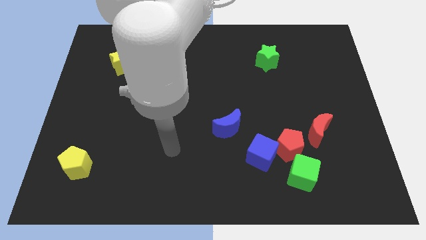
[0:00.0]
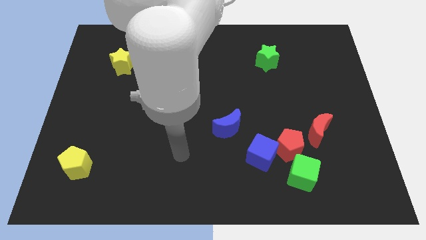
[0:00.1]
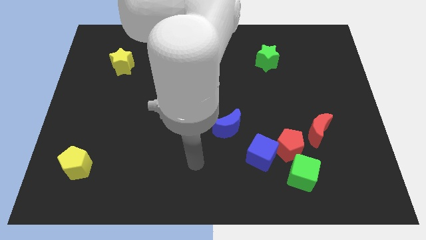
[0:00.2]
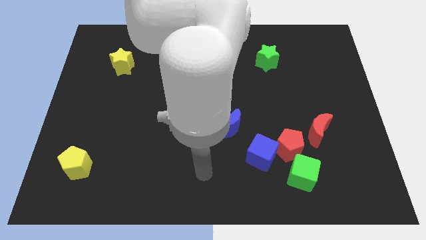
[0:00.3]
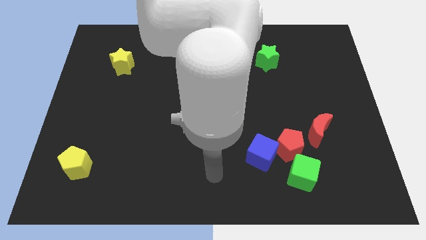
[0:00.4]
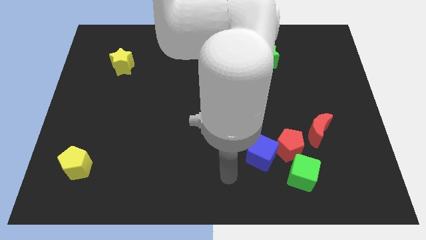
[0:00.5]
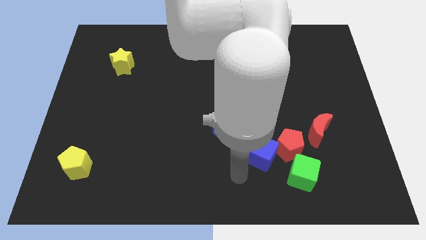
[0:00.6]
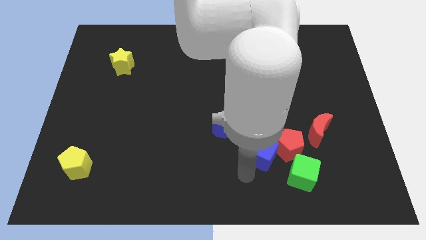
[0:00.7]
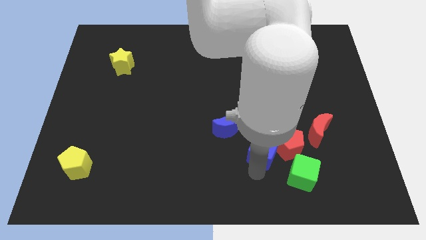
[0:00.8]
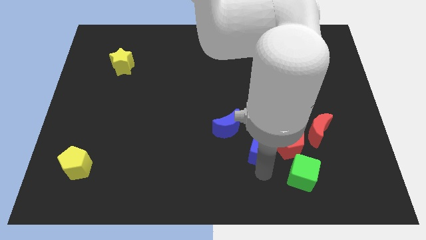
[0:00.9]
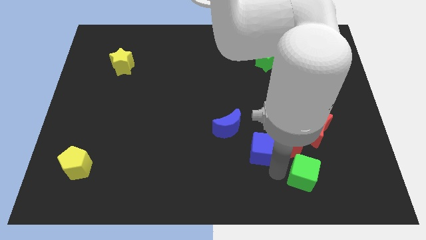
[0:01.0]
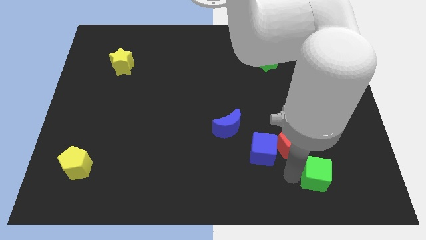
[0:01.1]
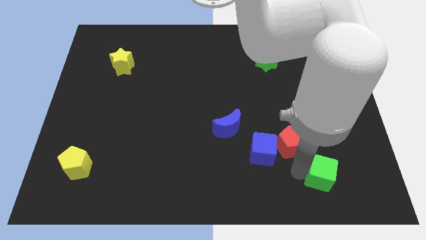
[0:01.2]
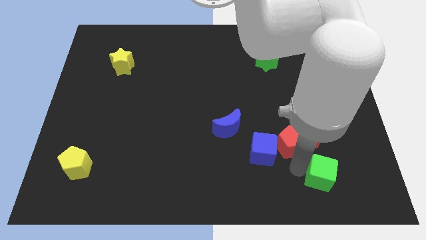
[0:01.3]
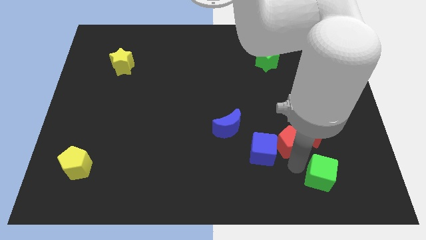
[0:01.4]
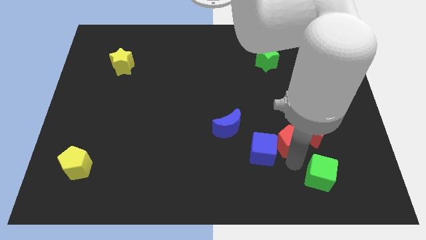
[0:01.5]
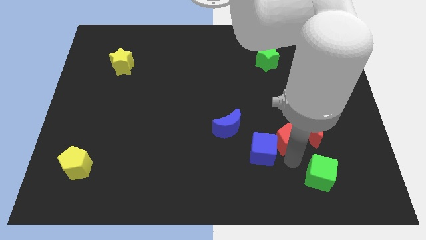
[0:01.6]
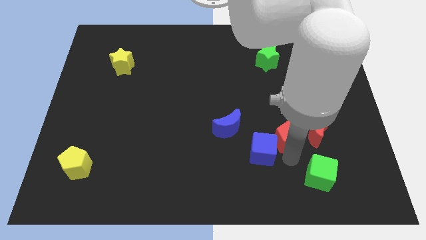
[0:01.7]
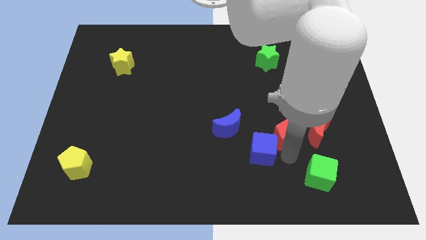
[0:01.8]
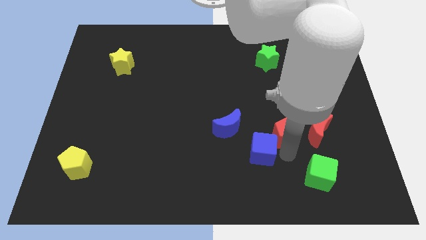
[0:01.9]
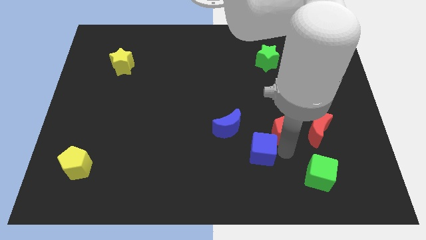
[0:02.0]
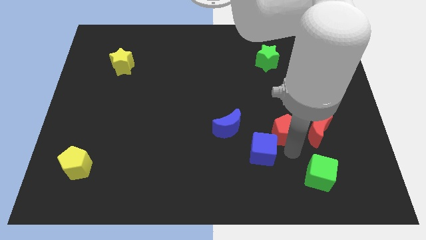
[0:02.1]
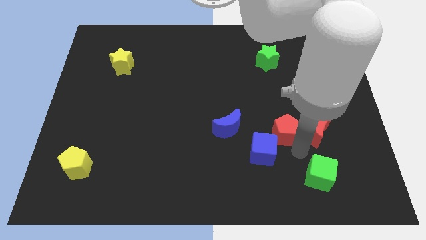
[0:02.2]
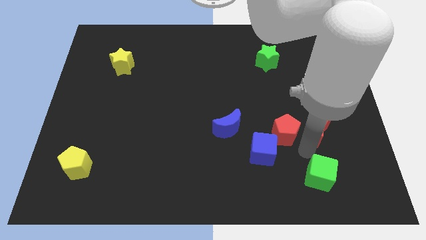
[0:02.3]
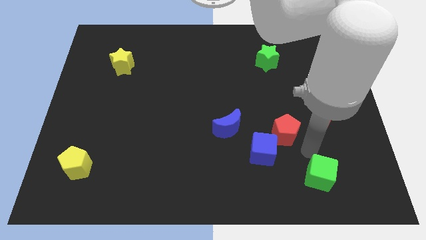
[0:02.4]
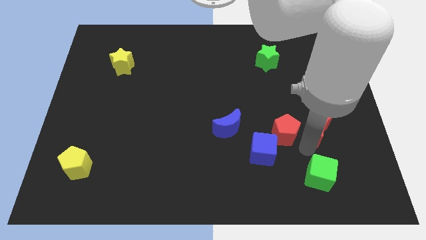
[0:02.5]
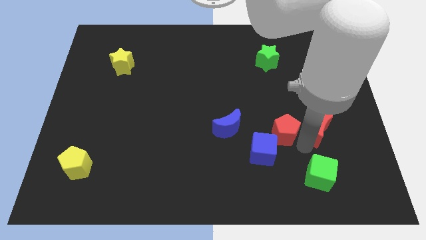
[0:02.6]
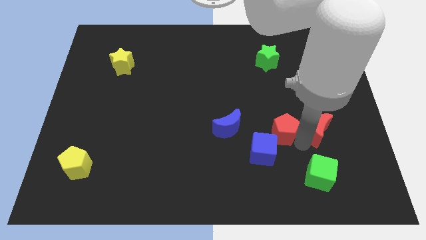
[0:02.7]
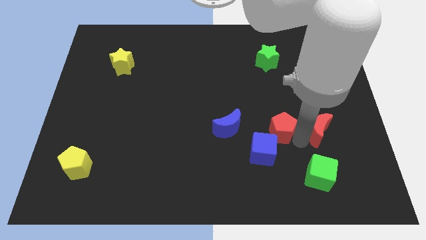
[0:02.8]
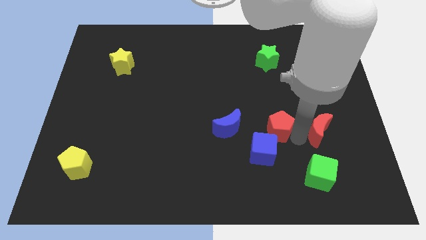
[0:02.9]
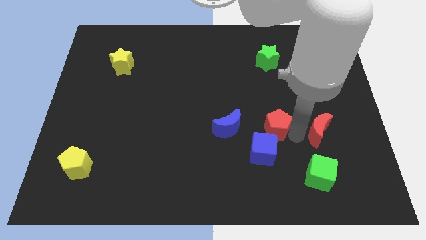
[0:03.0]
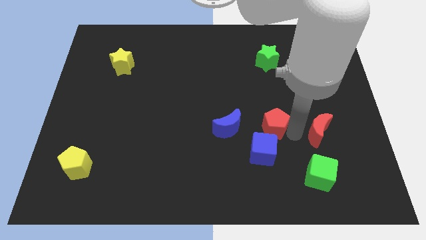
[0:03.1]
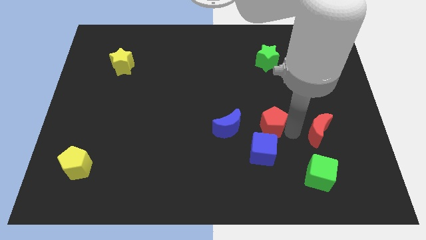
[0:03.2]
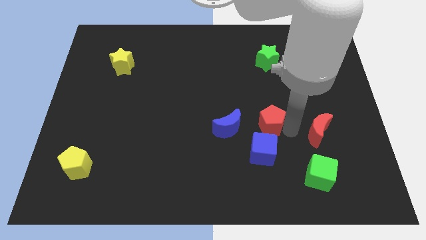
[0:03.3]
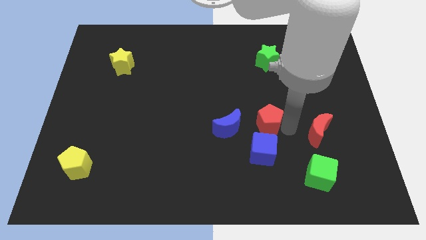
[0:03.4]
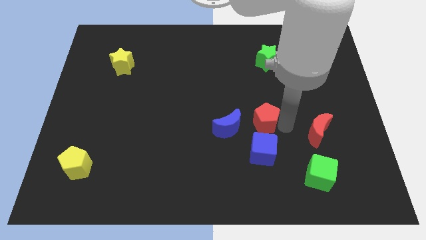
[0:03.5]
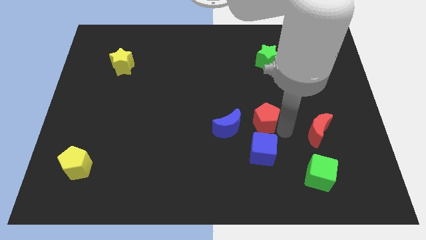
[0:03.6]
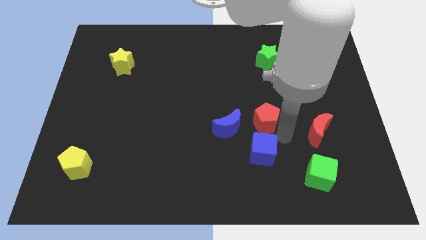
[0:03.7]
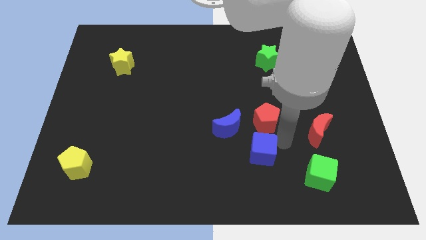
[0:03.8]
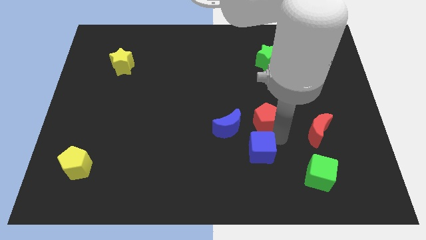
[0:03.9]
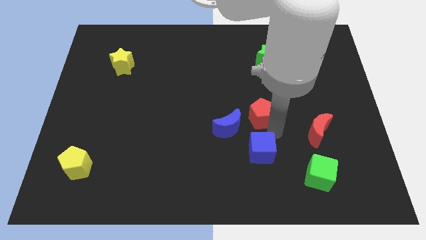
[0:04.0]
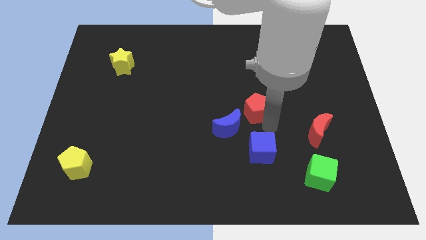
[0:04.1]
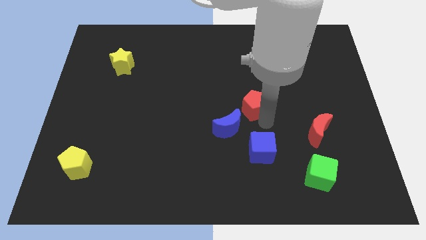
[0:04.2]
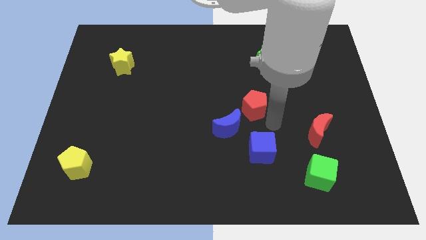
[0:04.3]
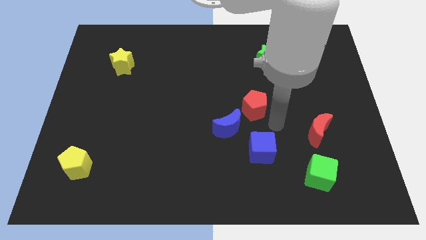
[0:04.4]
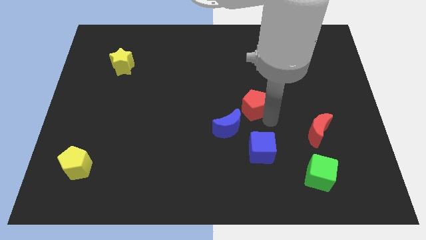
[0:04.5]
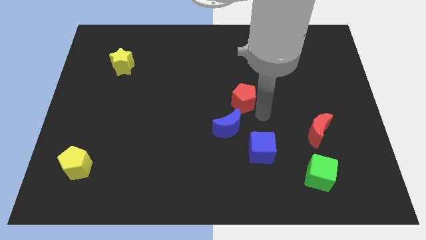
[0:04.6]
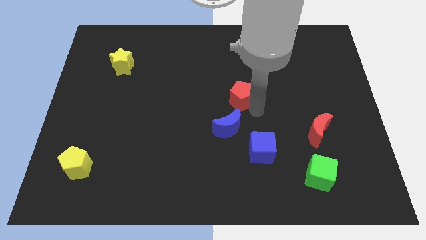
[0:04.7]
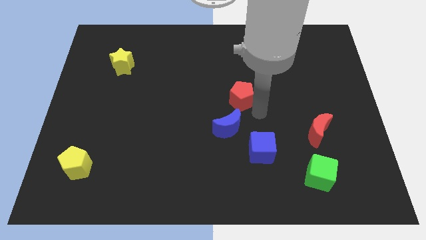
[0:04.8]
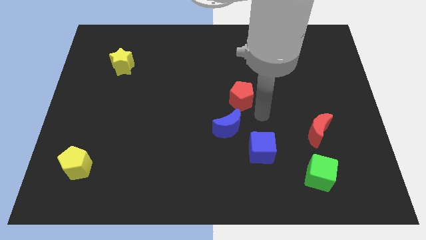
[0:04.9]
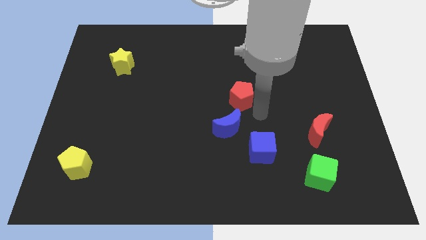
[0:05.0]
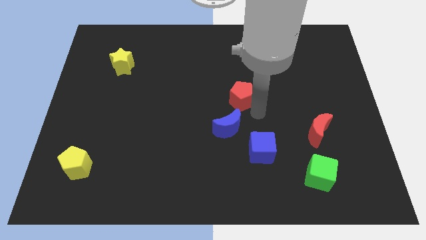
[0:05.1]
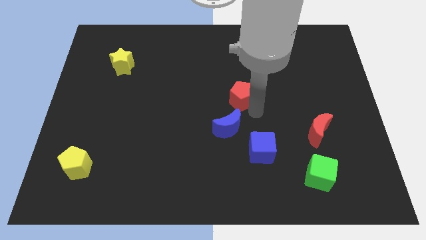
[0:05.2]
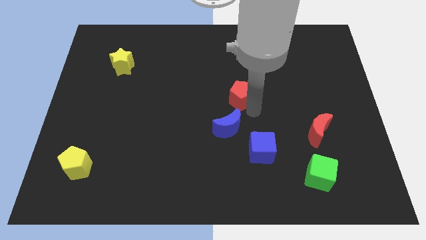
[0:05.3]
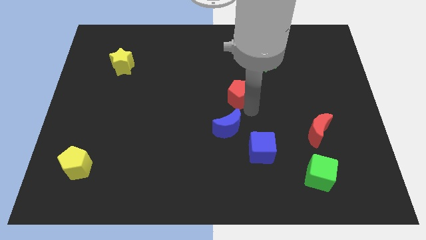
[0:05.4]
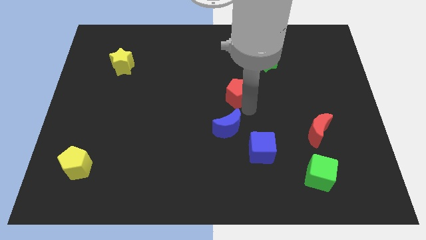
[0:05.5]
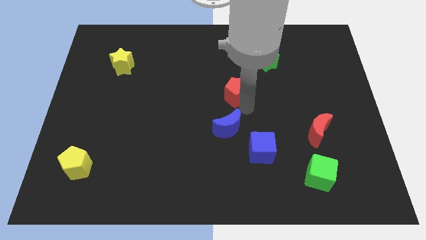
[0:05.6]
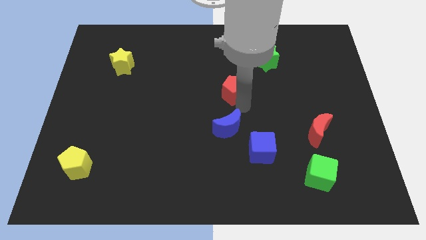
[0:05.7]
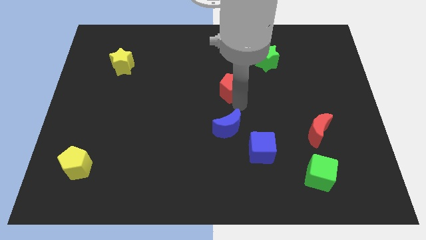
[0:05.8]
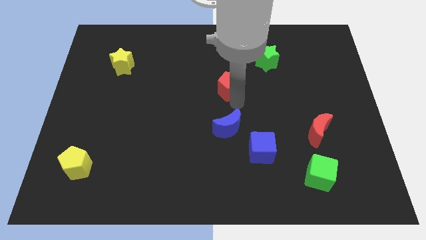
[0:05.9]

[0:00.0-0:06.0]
move the red pentagon diagonally upwards and left

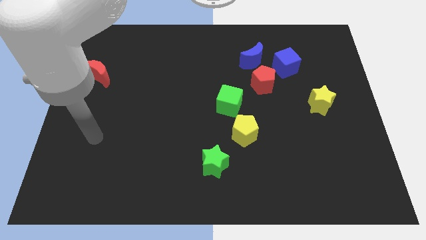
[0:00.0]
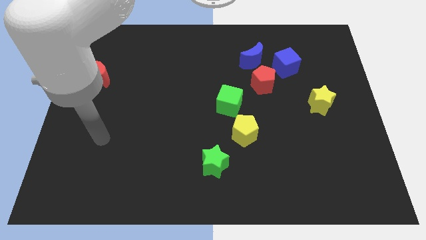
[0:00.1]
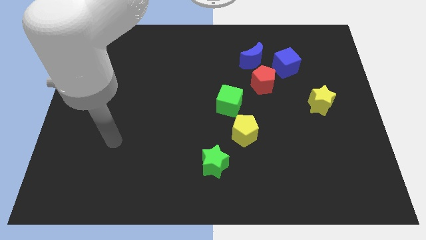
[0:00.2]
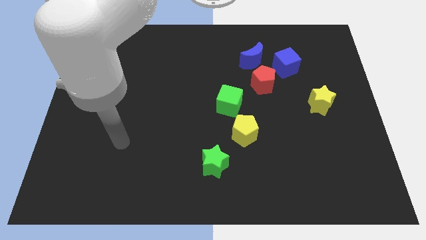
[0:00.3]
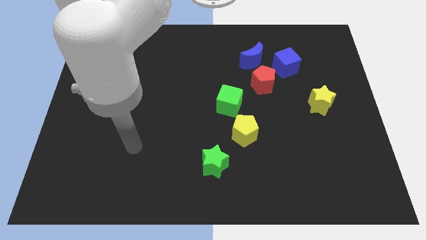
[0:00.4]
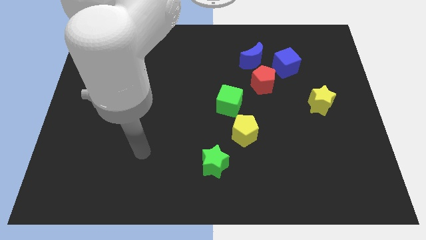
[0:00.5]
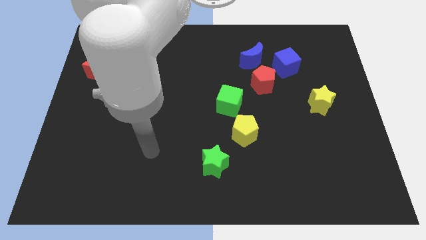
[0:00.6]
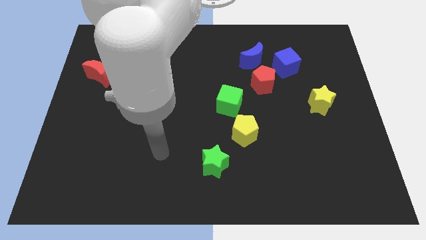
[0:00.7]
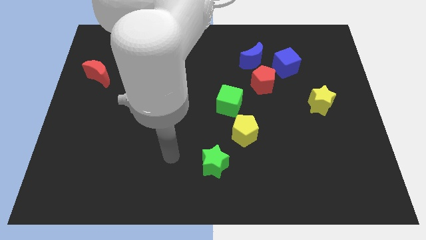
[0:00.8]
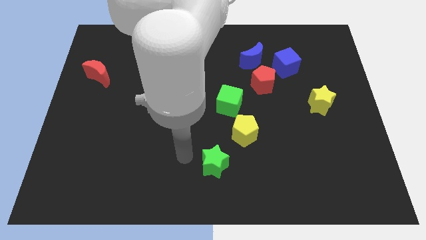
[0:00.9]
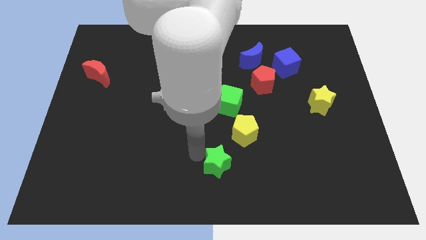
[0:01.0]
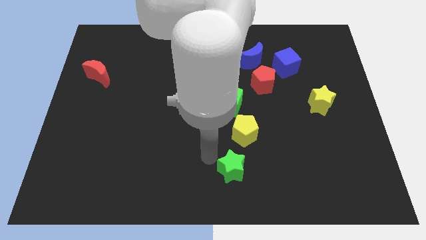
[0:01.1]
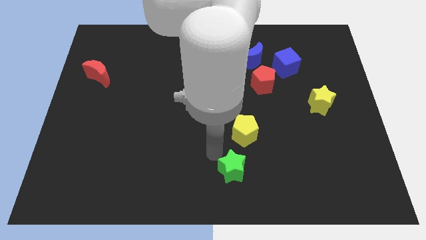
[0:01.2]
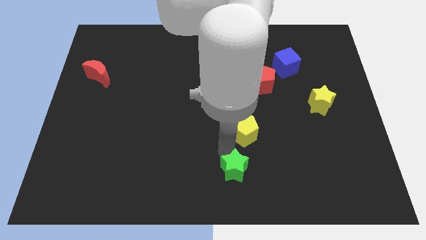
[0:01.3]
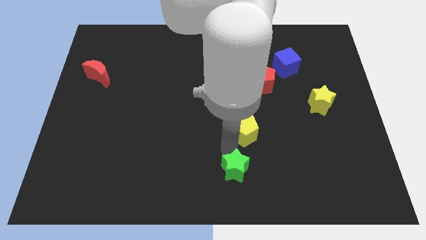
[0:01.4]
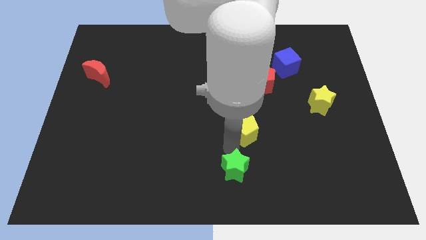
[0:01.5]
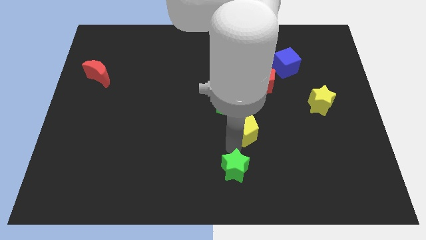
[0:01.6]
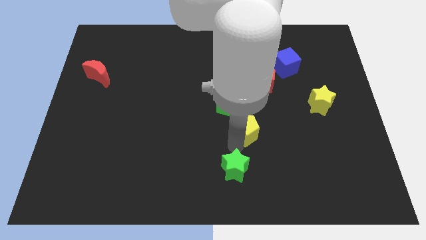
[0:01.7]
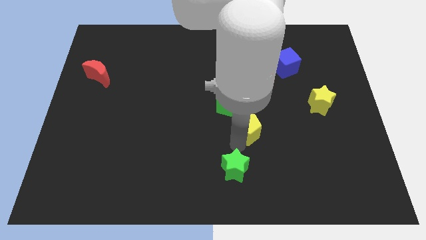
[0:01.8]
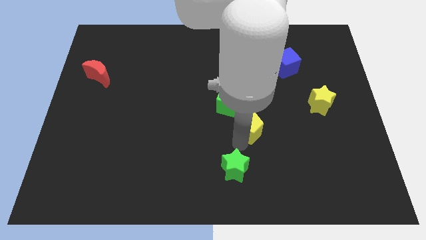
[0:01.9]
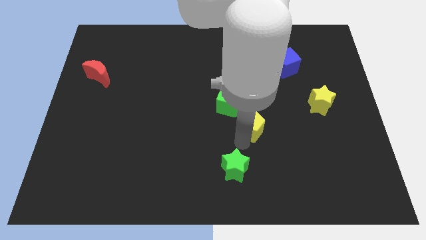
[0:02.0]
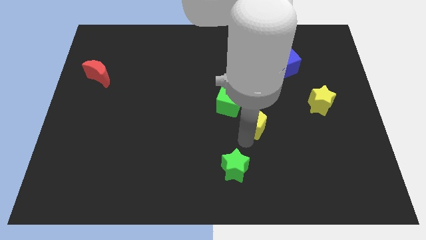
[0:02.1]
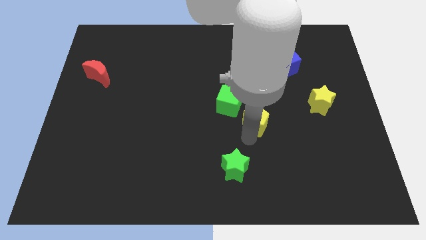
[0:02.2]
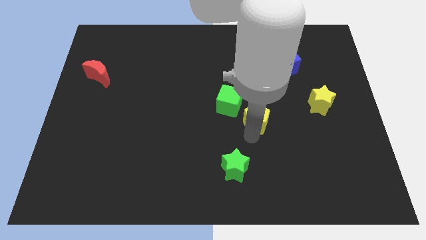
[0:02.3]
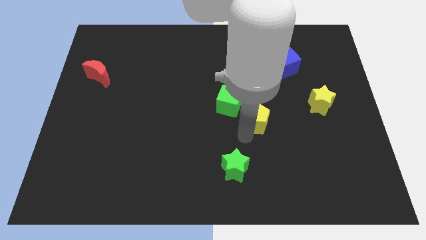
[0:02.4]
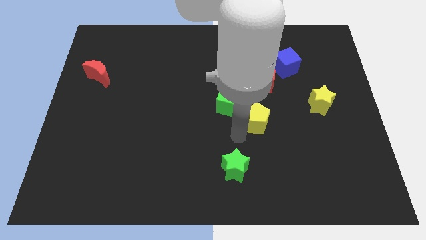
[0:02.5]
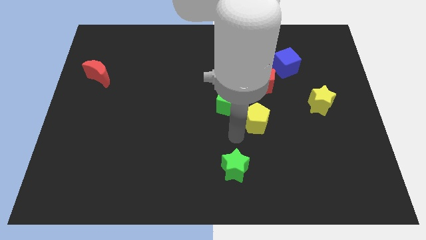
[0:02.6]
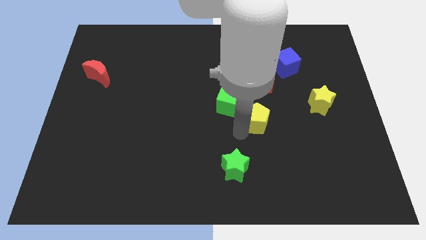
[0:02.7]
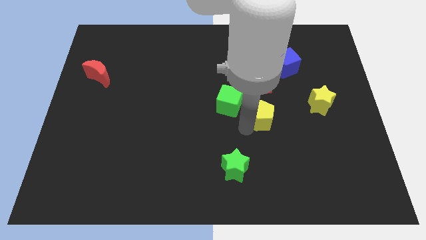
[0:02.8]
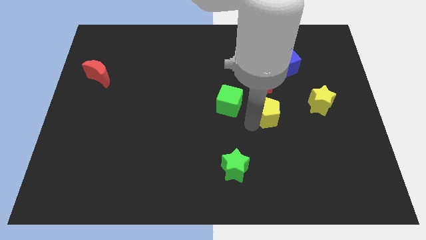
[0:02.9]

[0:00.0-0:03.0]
slide the yellow pentagon upwards and then to the right somewhat
